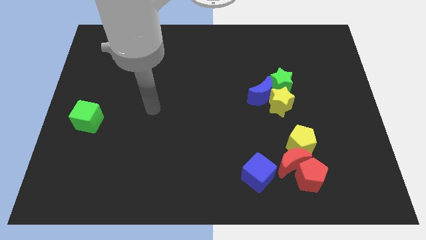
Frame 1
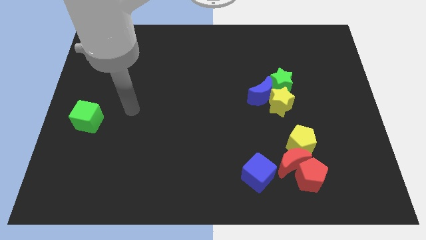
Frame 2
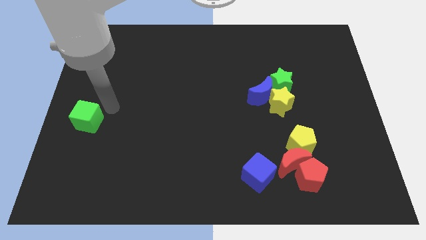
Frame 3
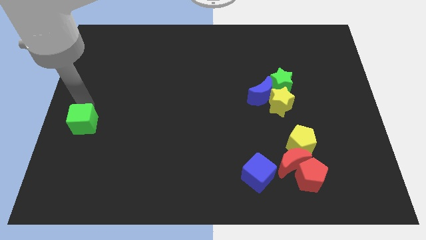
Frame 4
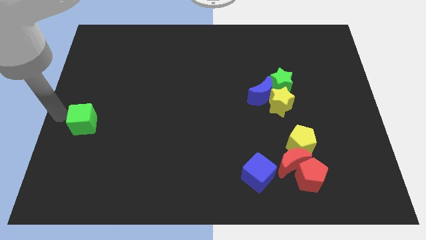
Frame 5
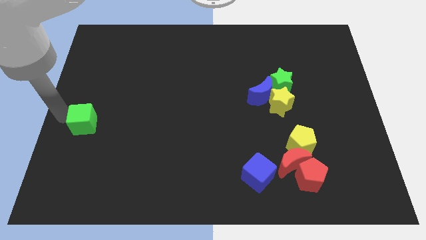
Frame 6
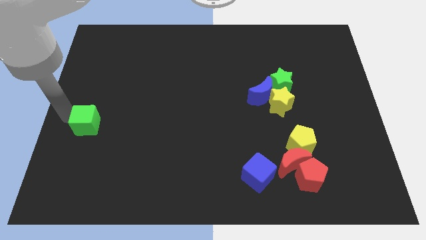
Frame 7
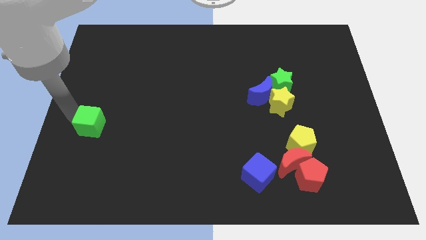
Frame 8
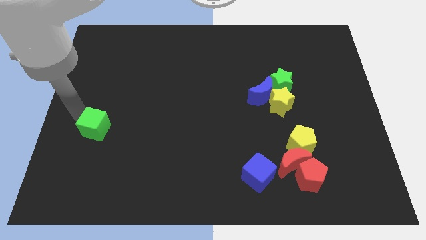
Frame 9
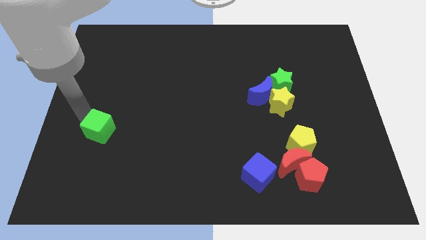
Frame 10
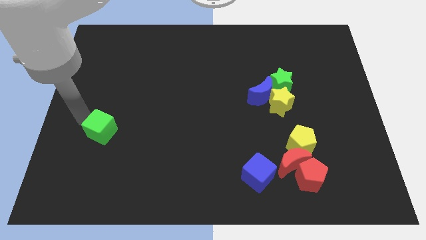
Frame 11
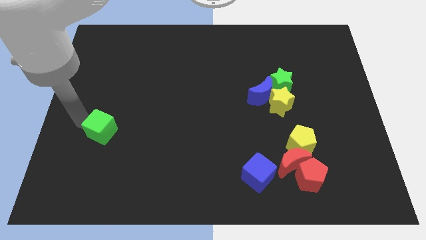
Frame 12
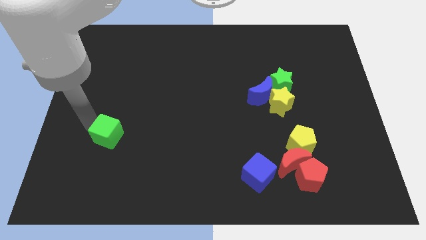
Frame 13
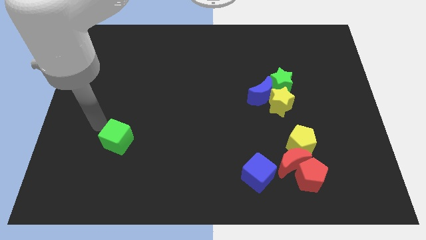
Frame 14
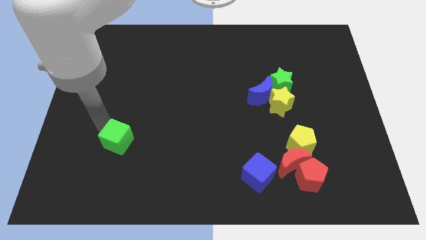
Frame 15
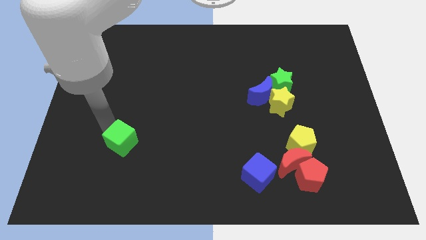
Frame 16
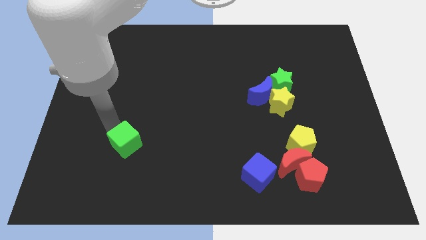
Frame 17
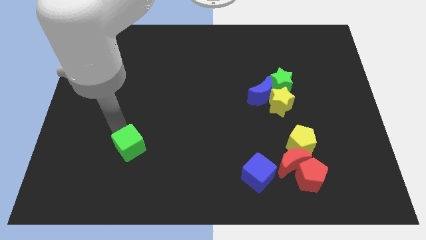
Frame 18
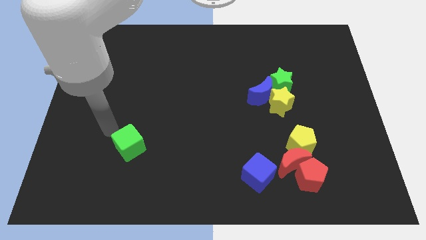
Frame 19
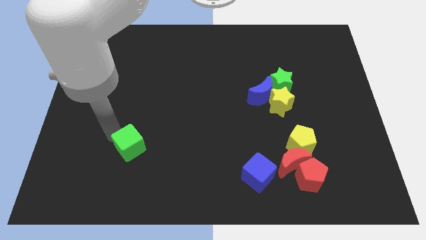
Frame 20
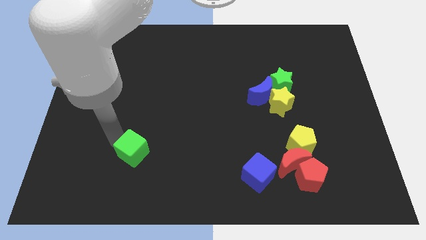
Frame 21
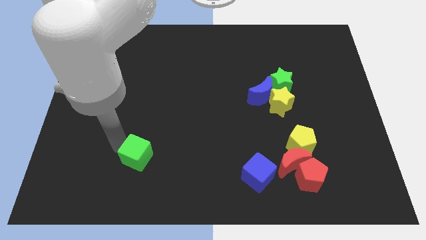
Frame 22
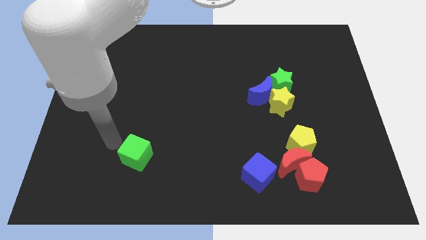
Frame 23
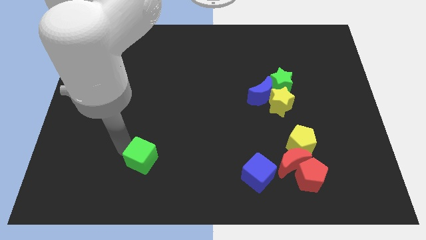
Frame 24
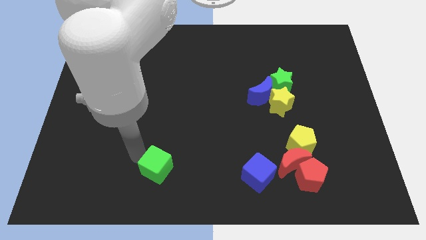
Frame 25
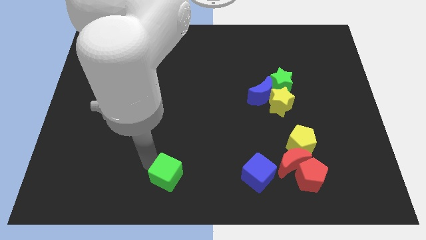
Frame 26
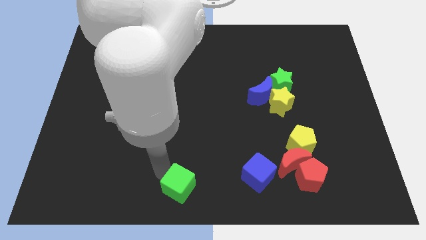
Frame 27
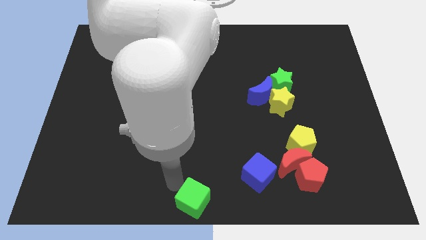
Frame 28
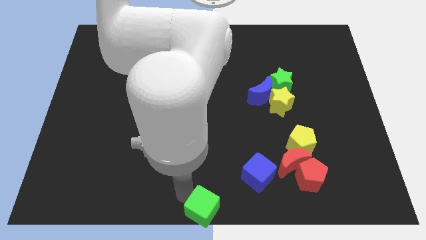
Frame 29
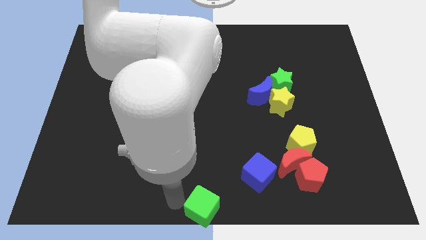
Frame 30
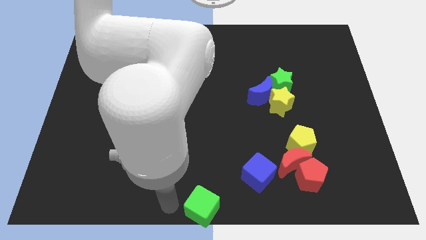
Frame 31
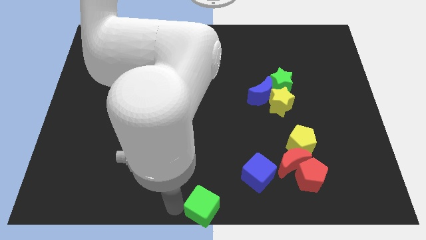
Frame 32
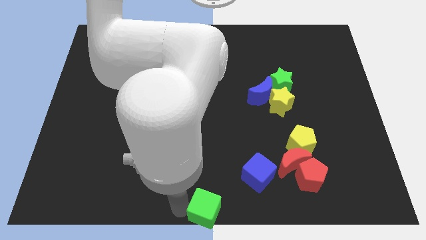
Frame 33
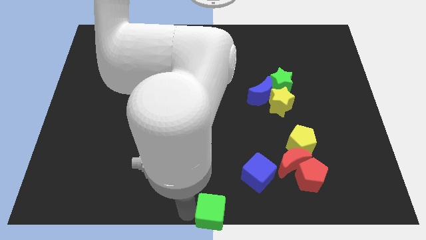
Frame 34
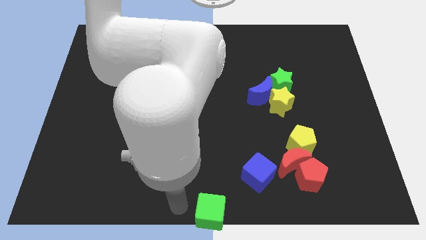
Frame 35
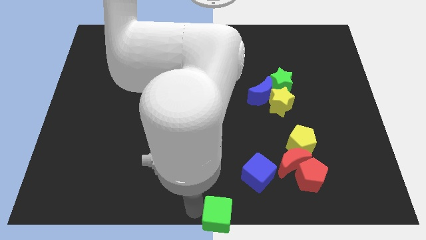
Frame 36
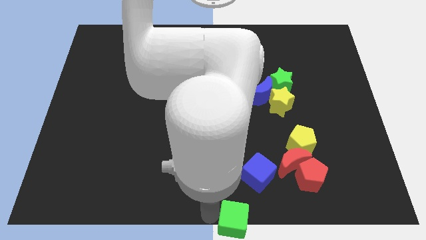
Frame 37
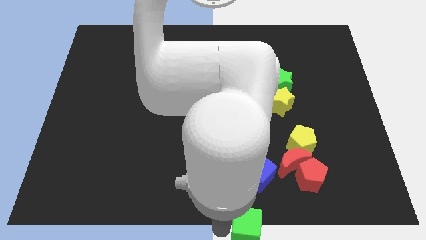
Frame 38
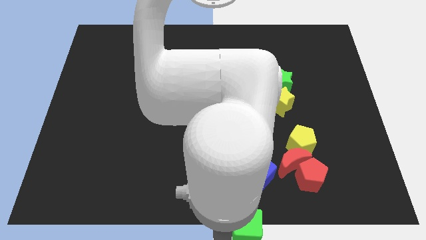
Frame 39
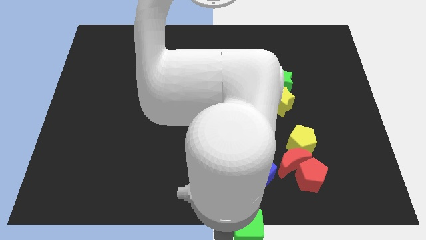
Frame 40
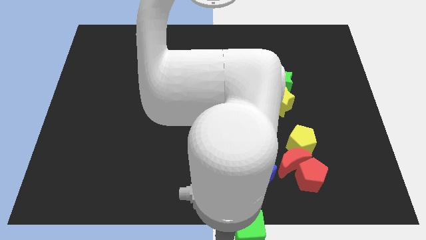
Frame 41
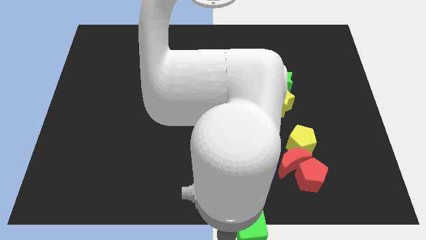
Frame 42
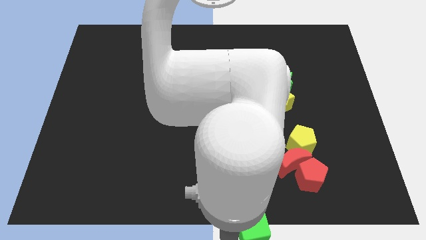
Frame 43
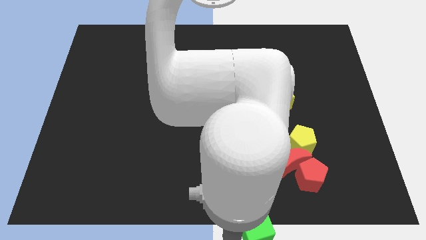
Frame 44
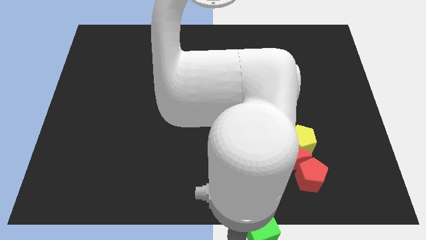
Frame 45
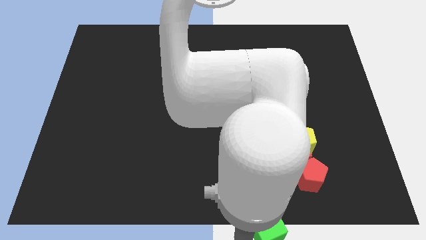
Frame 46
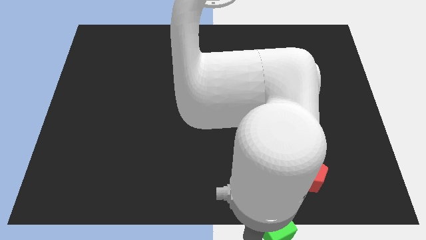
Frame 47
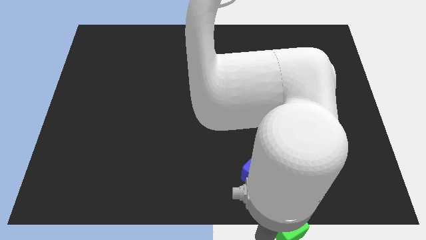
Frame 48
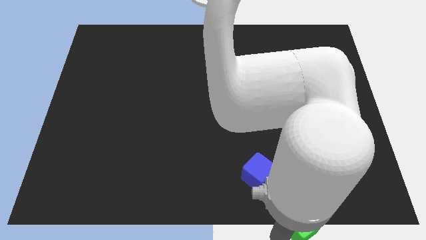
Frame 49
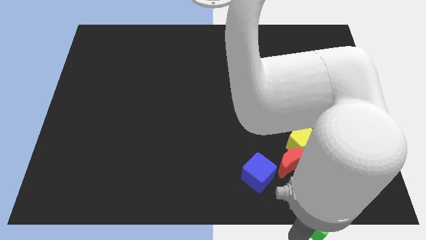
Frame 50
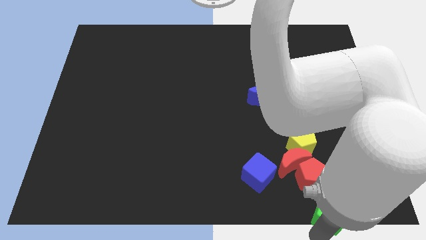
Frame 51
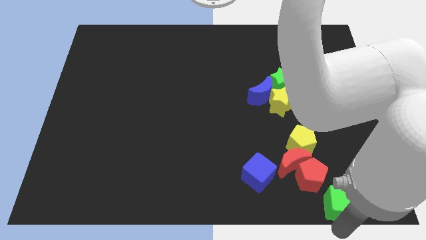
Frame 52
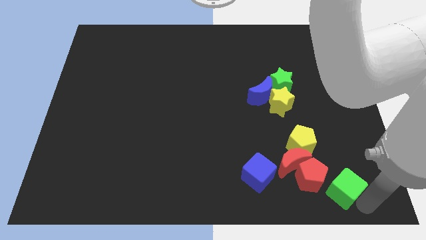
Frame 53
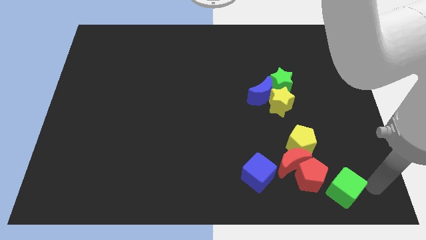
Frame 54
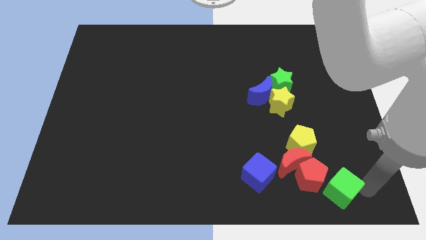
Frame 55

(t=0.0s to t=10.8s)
move the green cube close to the red pentagon

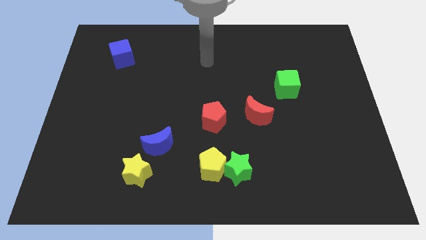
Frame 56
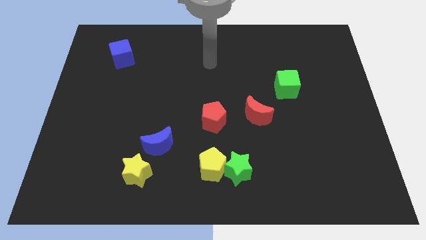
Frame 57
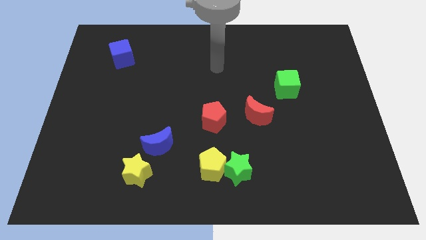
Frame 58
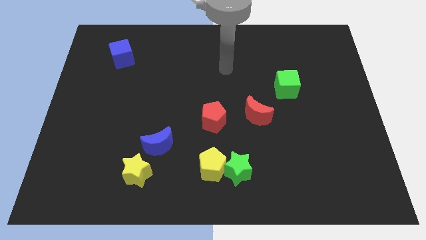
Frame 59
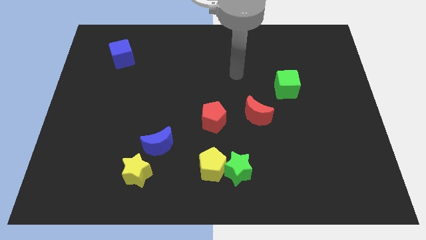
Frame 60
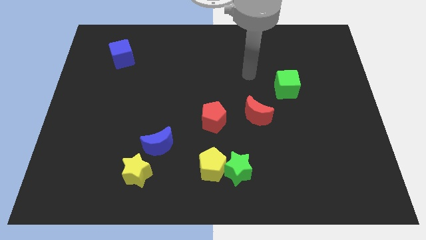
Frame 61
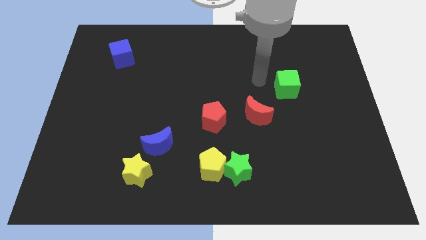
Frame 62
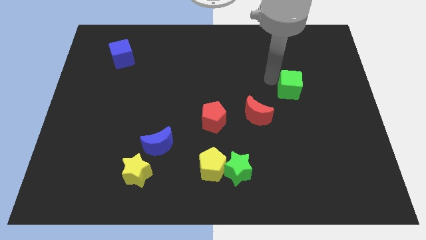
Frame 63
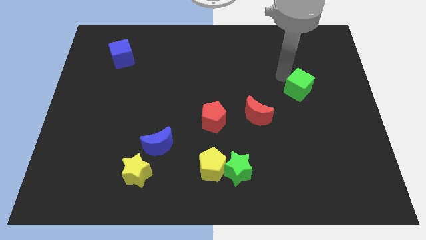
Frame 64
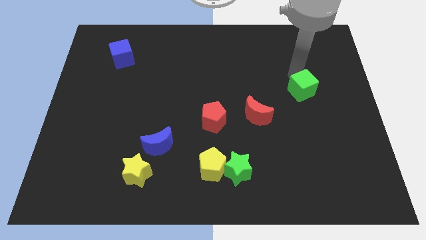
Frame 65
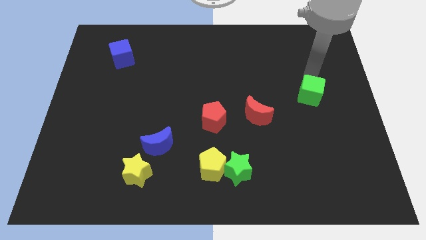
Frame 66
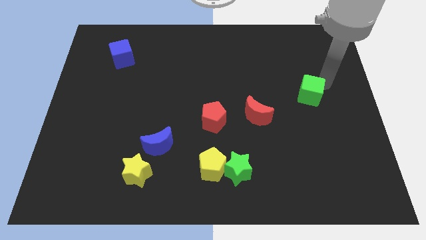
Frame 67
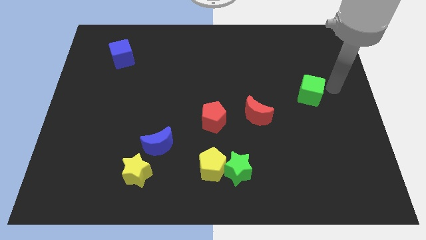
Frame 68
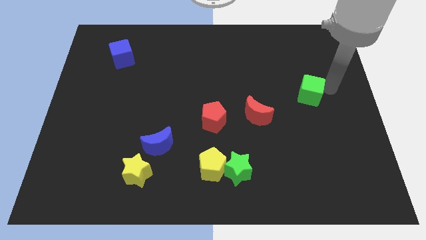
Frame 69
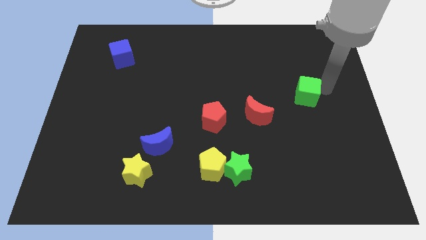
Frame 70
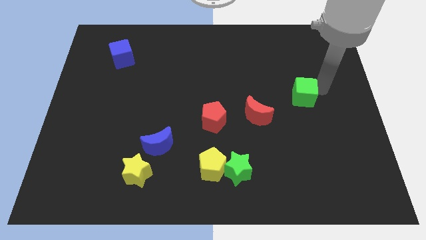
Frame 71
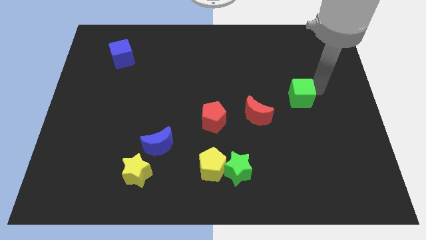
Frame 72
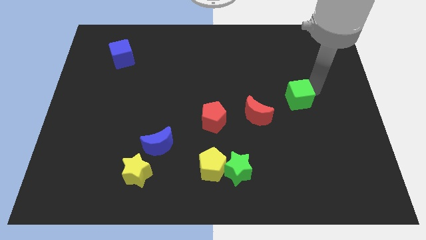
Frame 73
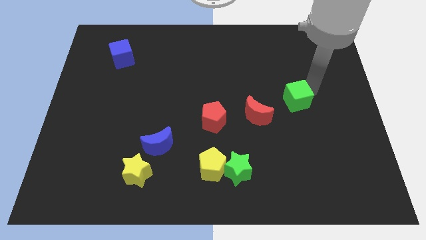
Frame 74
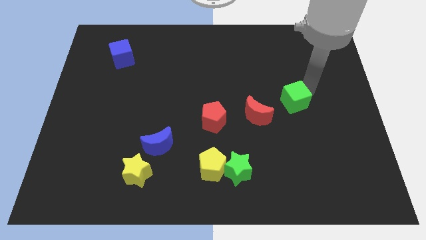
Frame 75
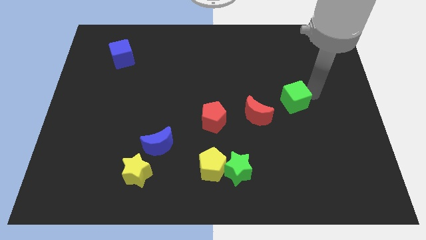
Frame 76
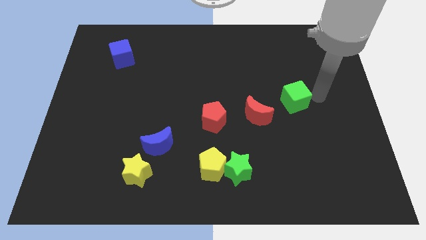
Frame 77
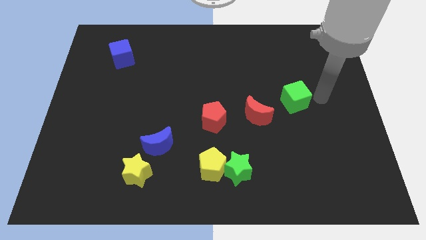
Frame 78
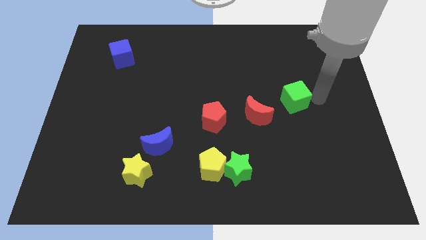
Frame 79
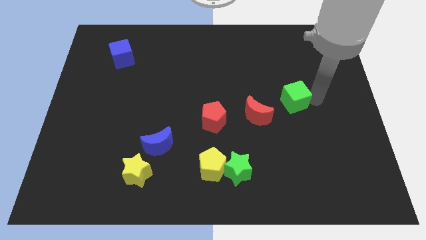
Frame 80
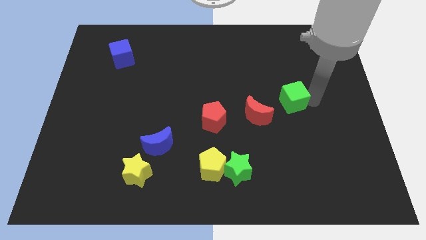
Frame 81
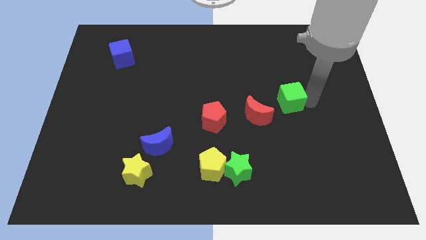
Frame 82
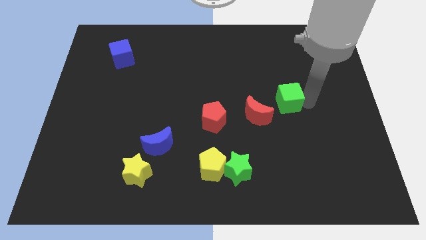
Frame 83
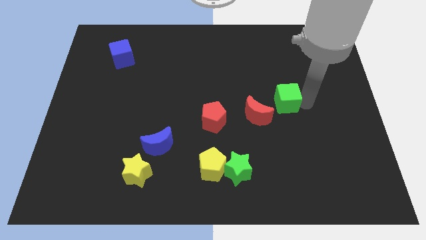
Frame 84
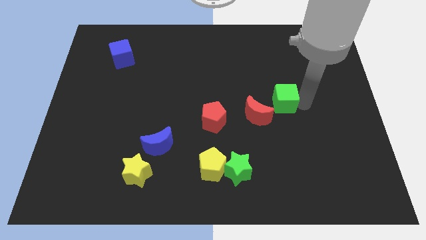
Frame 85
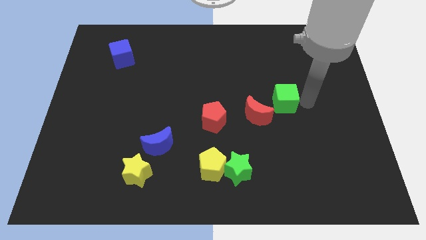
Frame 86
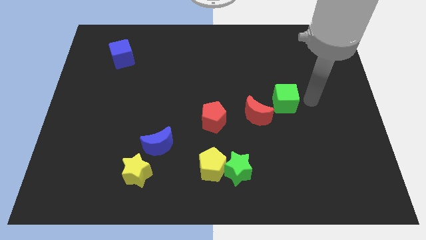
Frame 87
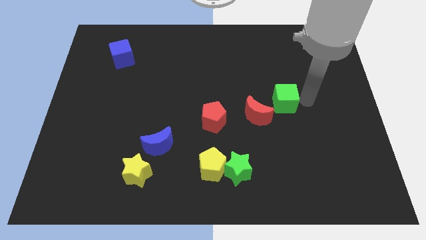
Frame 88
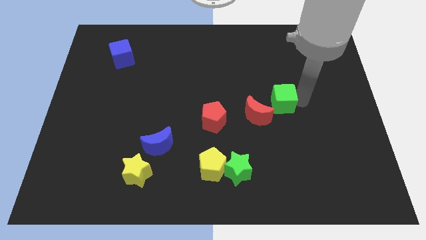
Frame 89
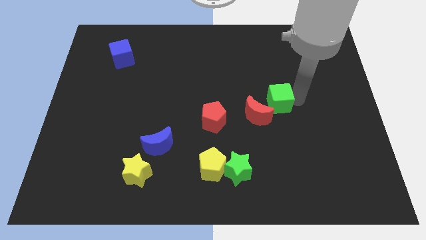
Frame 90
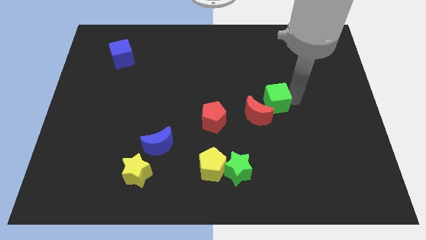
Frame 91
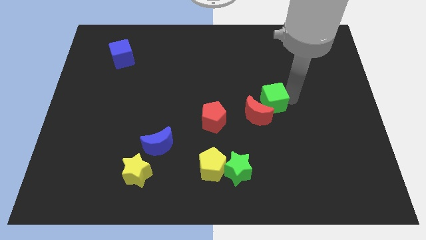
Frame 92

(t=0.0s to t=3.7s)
move the green cube to the red moon
